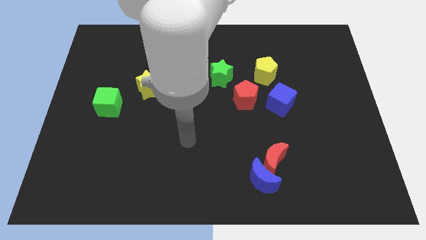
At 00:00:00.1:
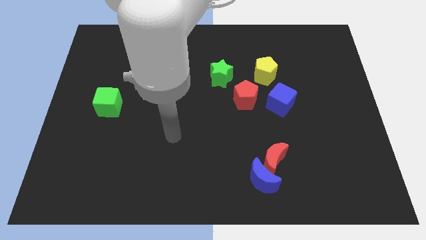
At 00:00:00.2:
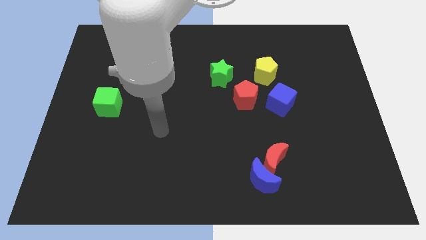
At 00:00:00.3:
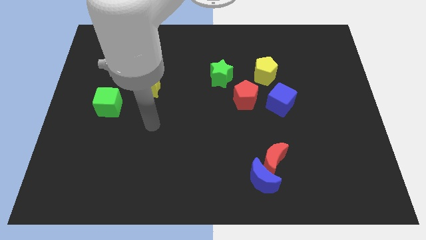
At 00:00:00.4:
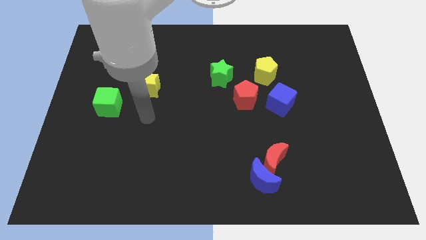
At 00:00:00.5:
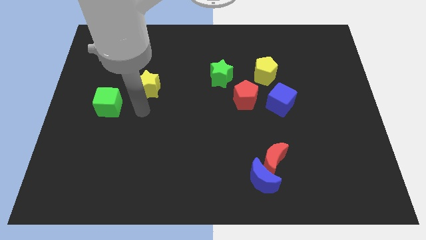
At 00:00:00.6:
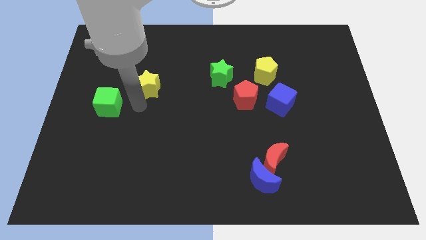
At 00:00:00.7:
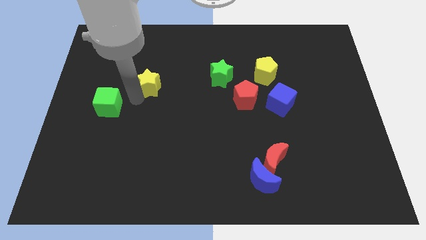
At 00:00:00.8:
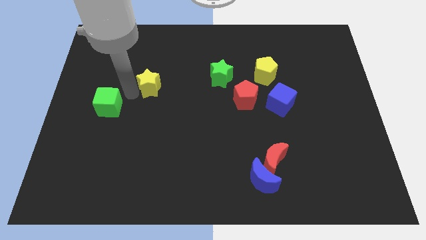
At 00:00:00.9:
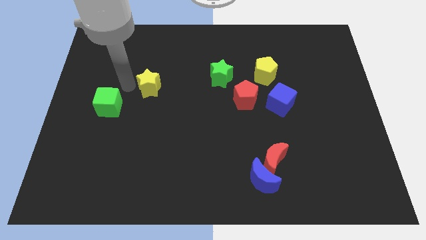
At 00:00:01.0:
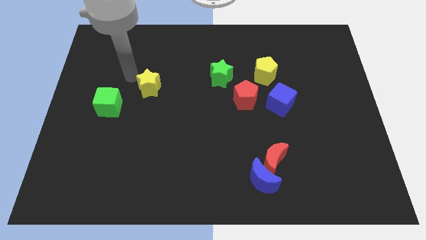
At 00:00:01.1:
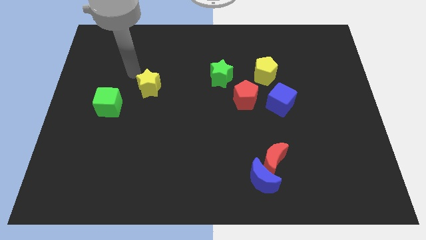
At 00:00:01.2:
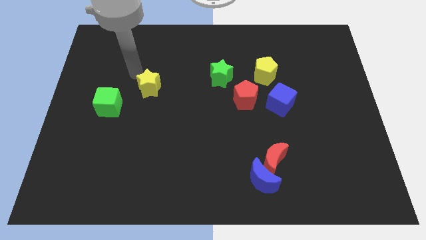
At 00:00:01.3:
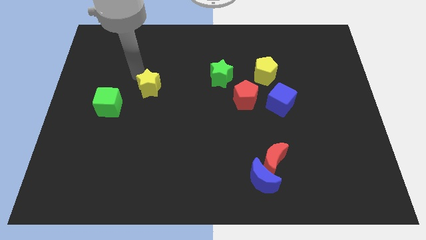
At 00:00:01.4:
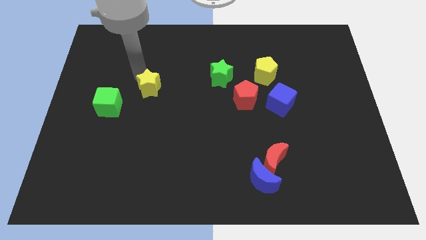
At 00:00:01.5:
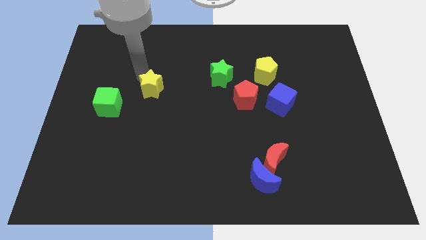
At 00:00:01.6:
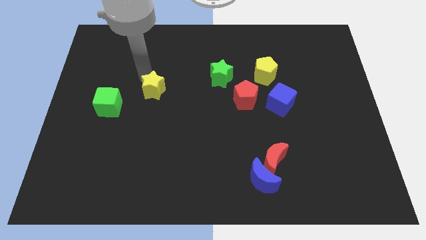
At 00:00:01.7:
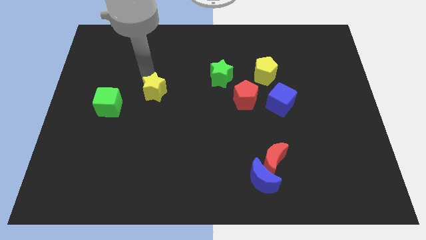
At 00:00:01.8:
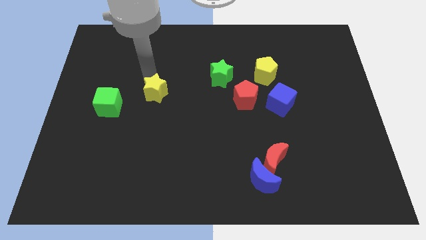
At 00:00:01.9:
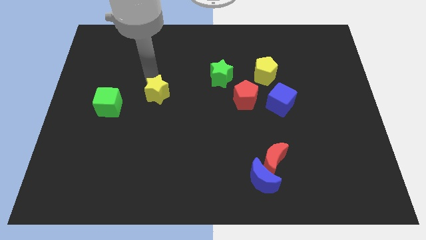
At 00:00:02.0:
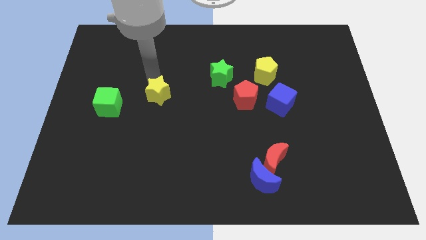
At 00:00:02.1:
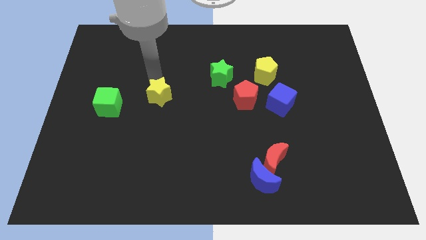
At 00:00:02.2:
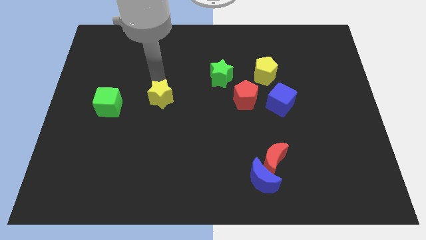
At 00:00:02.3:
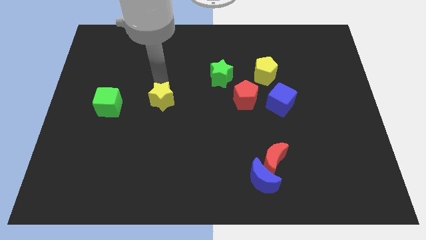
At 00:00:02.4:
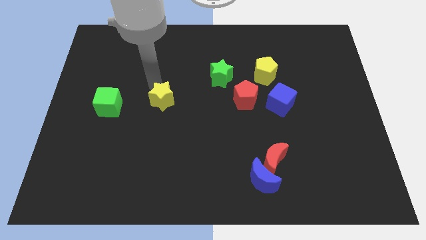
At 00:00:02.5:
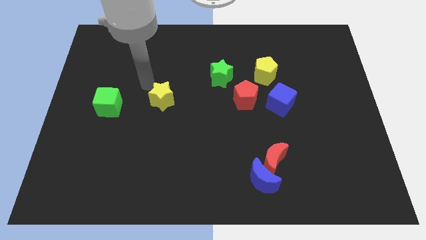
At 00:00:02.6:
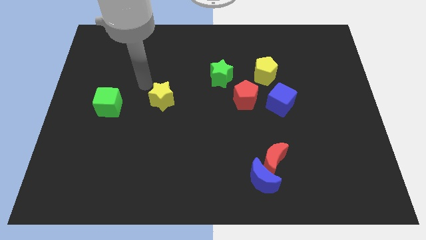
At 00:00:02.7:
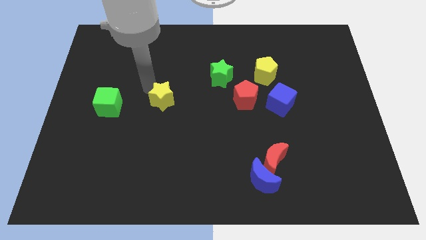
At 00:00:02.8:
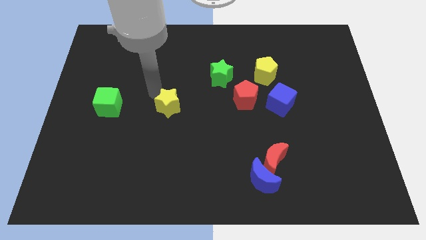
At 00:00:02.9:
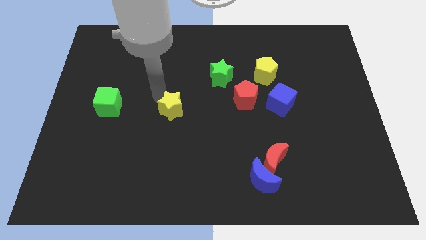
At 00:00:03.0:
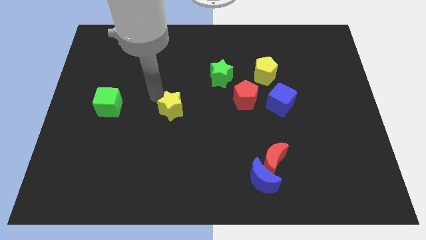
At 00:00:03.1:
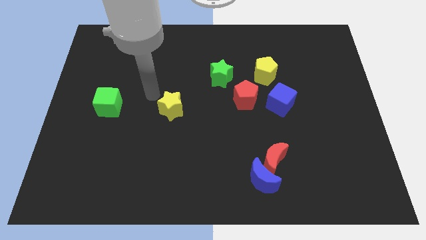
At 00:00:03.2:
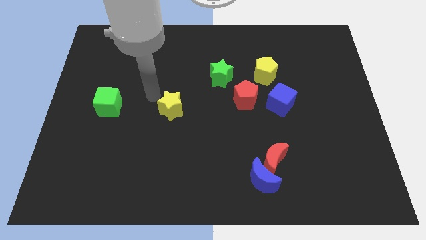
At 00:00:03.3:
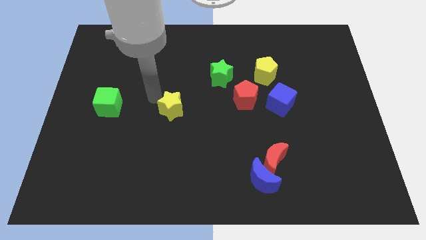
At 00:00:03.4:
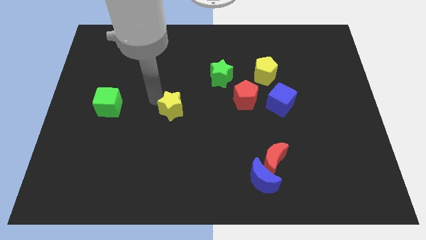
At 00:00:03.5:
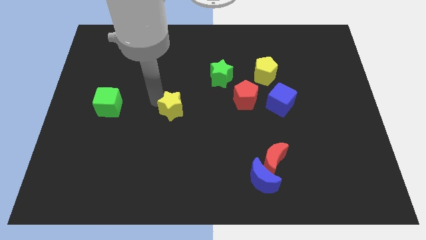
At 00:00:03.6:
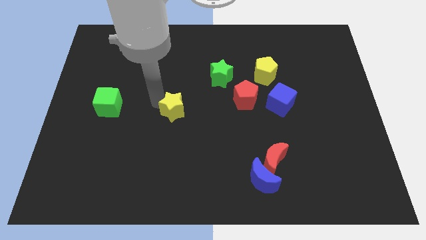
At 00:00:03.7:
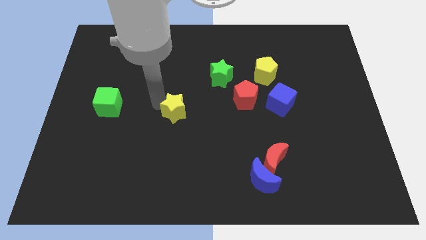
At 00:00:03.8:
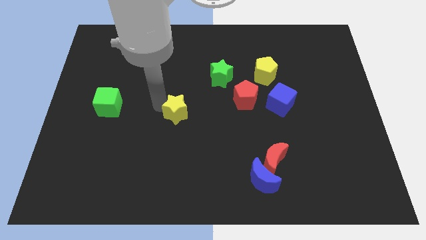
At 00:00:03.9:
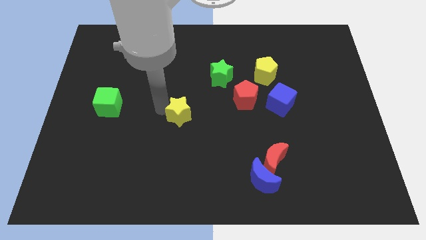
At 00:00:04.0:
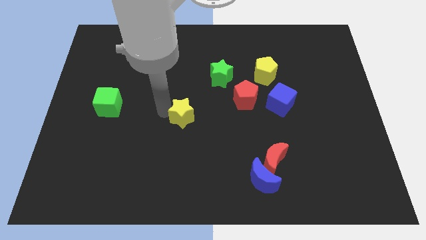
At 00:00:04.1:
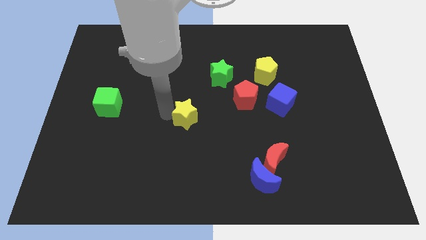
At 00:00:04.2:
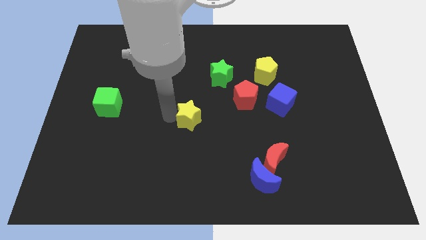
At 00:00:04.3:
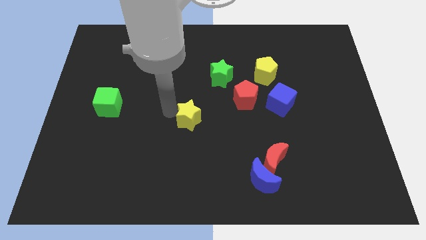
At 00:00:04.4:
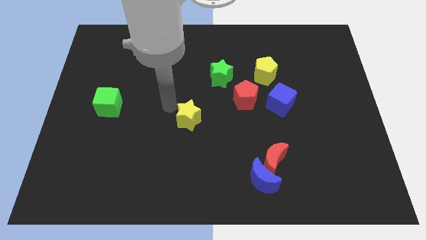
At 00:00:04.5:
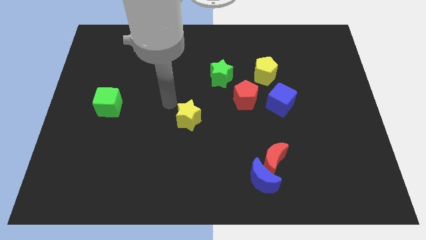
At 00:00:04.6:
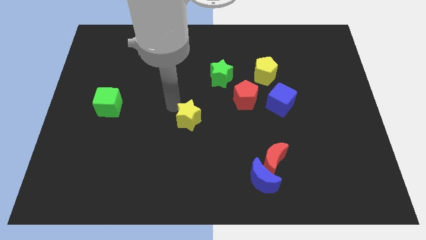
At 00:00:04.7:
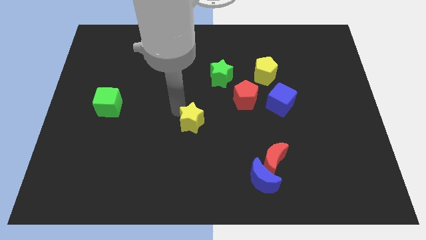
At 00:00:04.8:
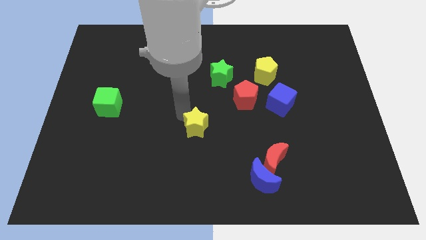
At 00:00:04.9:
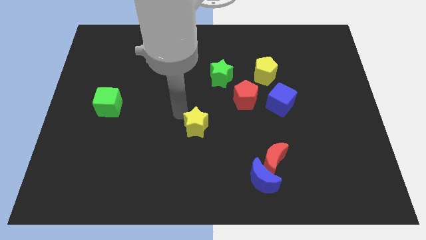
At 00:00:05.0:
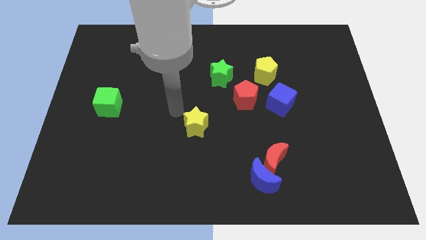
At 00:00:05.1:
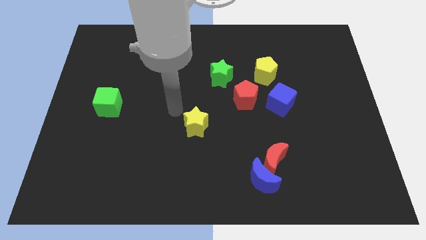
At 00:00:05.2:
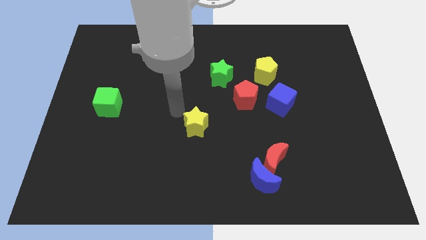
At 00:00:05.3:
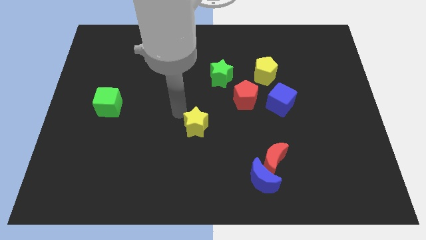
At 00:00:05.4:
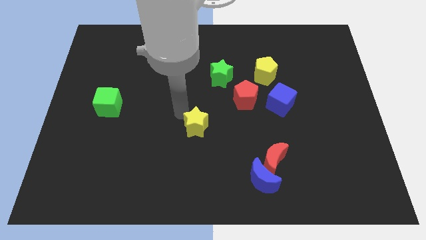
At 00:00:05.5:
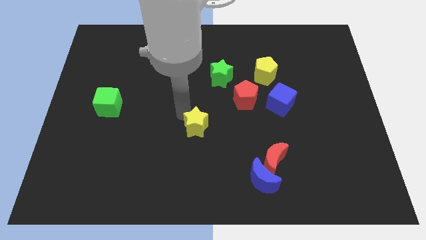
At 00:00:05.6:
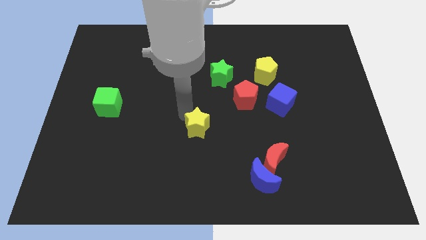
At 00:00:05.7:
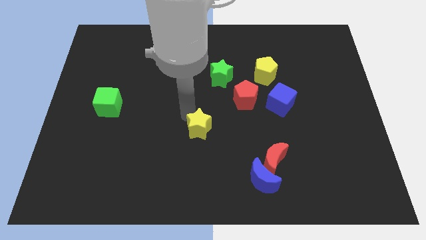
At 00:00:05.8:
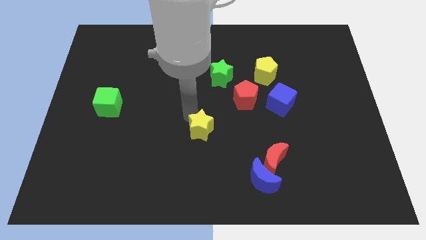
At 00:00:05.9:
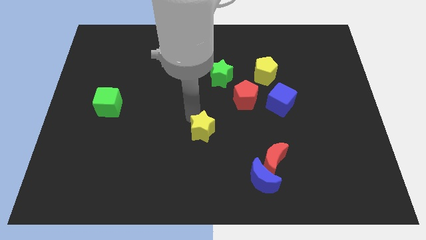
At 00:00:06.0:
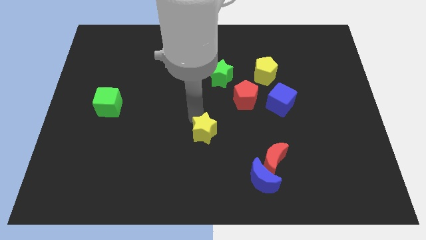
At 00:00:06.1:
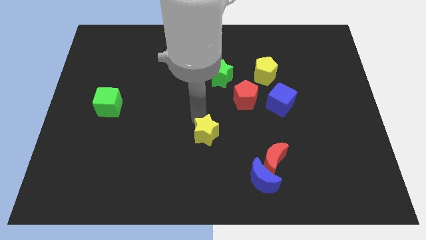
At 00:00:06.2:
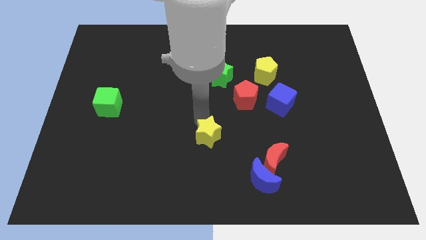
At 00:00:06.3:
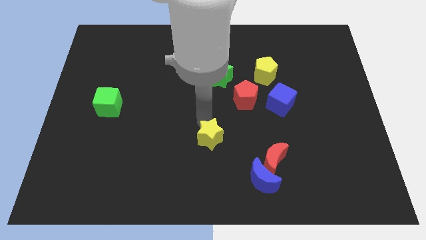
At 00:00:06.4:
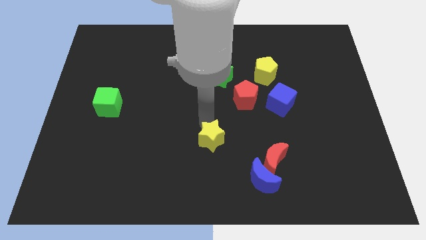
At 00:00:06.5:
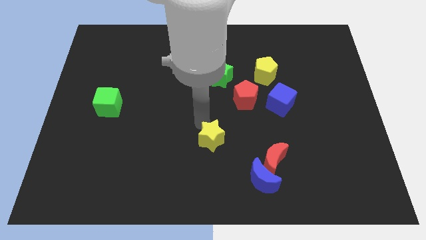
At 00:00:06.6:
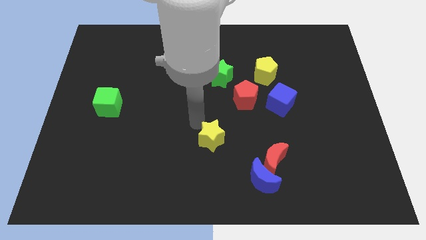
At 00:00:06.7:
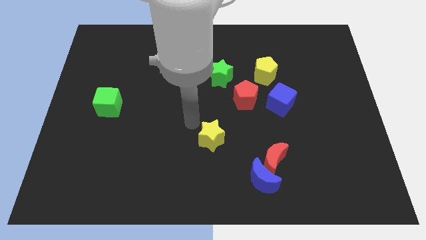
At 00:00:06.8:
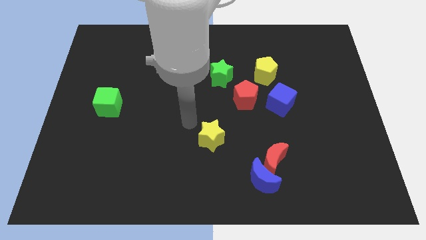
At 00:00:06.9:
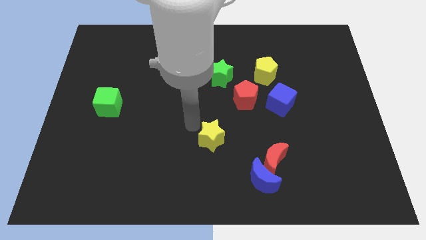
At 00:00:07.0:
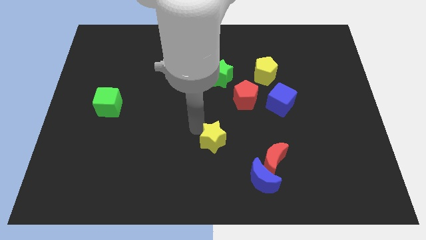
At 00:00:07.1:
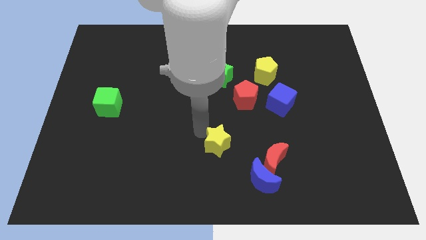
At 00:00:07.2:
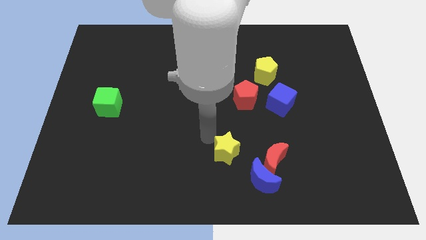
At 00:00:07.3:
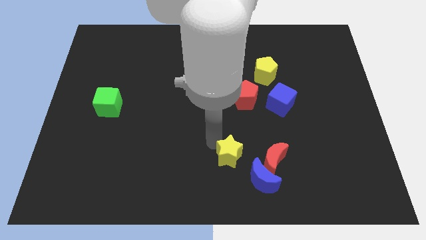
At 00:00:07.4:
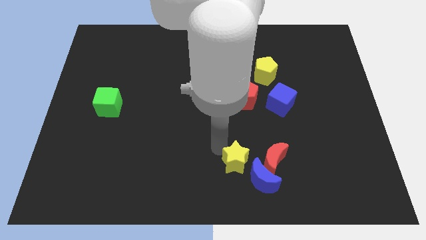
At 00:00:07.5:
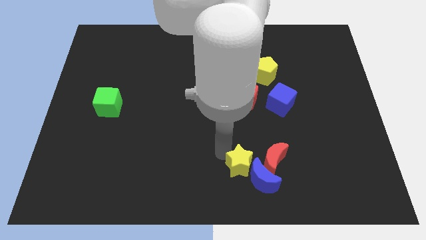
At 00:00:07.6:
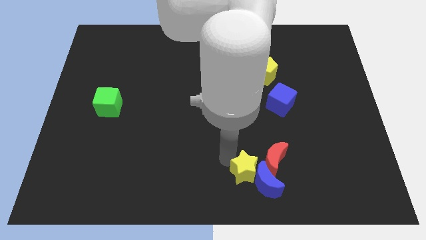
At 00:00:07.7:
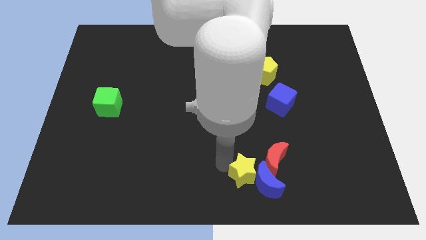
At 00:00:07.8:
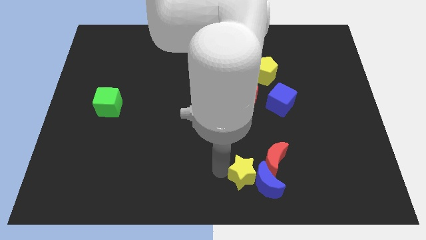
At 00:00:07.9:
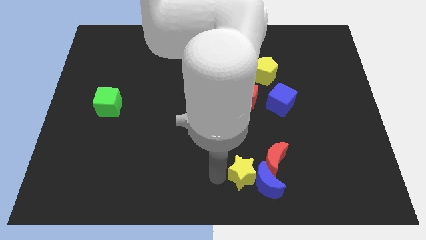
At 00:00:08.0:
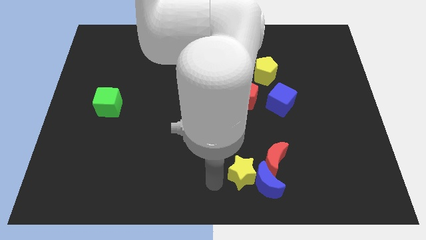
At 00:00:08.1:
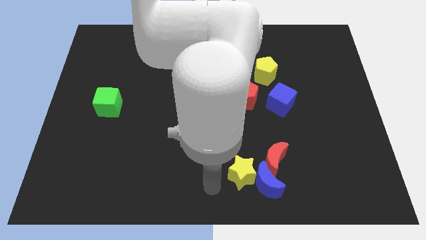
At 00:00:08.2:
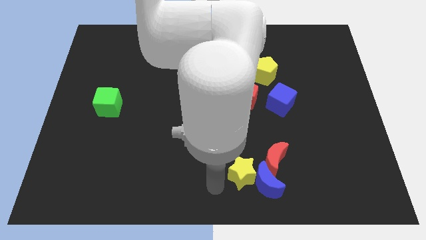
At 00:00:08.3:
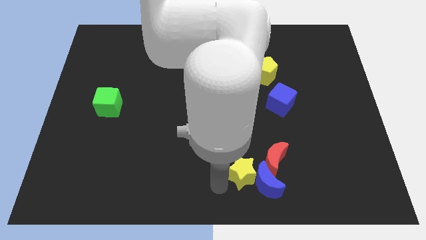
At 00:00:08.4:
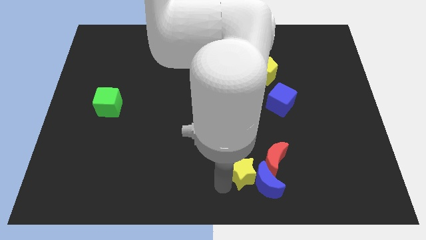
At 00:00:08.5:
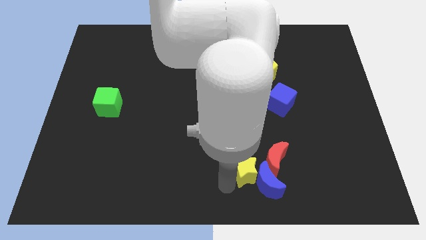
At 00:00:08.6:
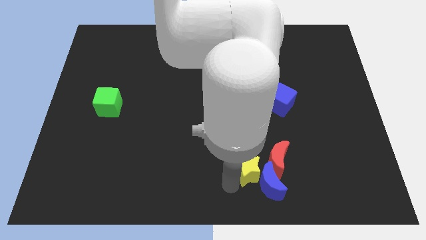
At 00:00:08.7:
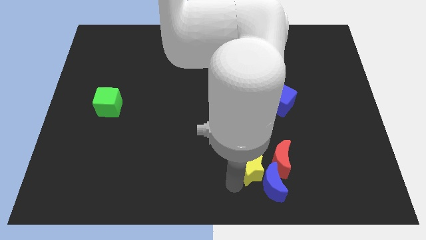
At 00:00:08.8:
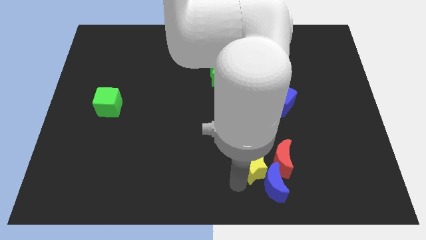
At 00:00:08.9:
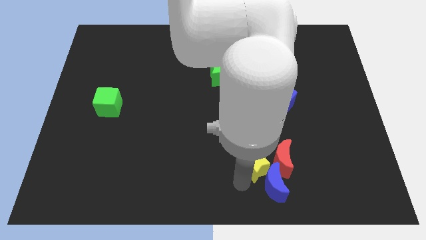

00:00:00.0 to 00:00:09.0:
slide the yellow star next to the red moon
